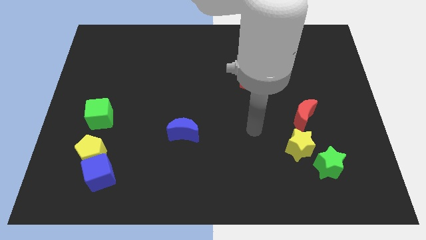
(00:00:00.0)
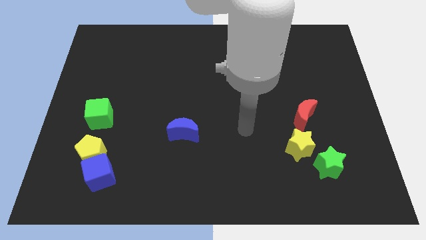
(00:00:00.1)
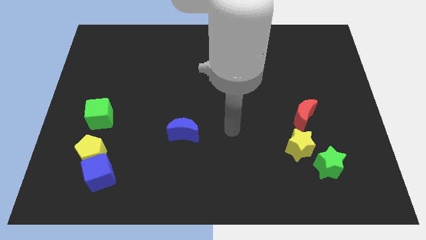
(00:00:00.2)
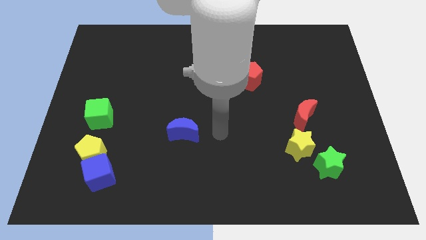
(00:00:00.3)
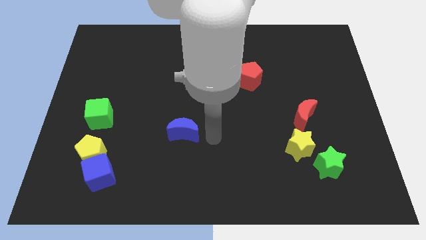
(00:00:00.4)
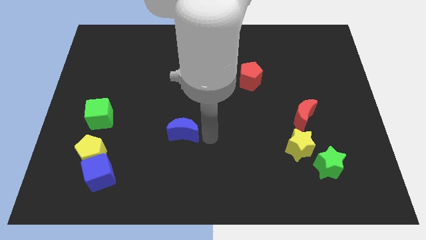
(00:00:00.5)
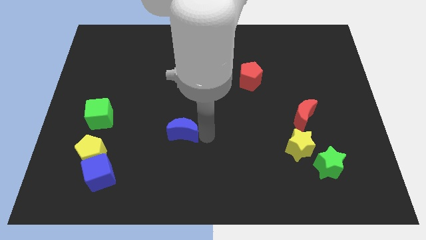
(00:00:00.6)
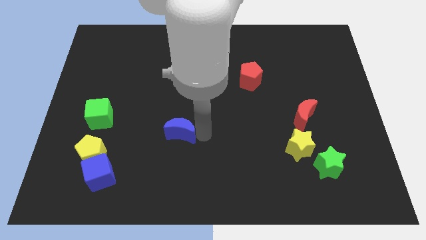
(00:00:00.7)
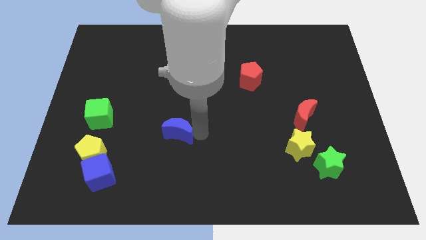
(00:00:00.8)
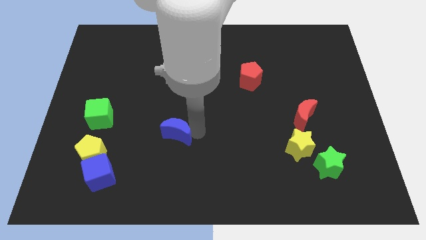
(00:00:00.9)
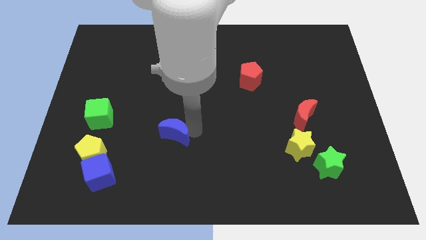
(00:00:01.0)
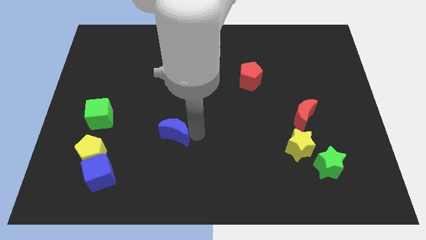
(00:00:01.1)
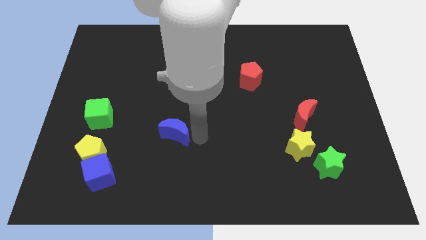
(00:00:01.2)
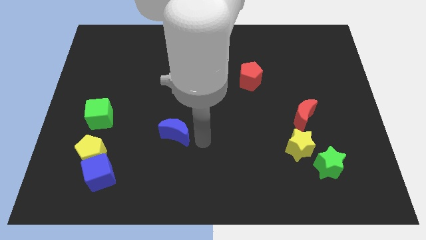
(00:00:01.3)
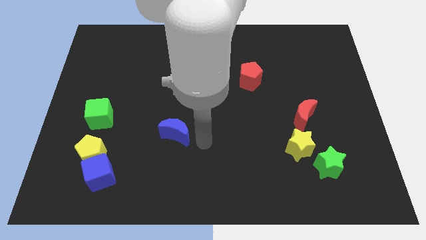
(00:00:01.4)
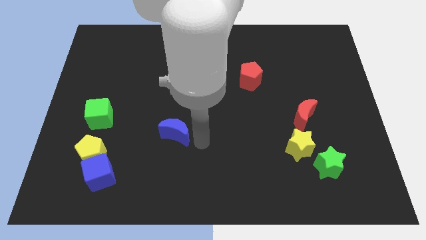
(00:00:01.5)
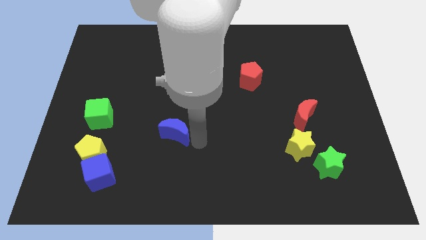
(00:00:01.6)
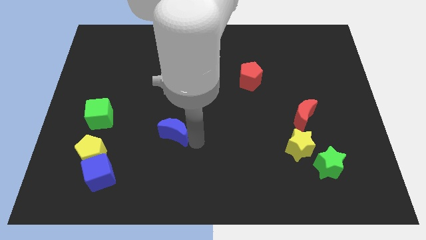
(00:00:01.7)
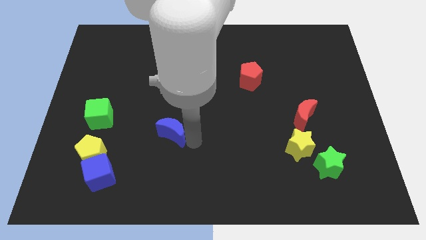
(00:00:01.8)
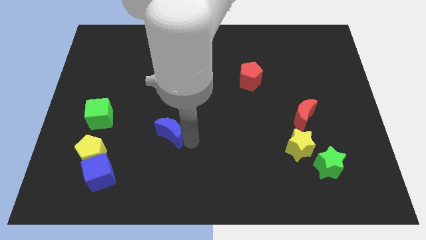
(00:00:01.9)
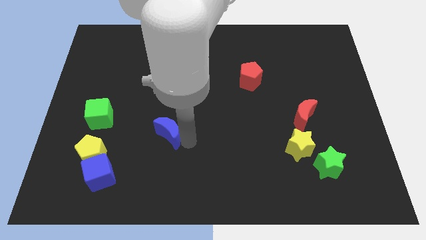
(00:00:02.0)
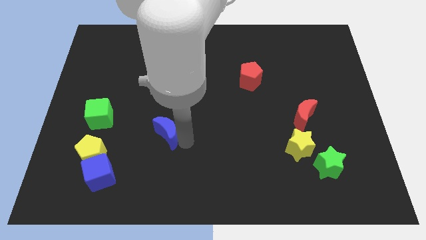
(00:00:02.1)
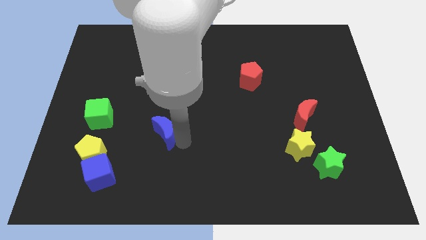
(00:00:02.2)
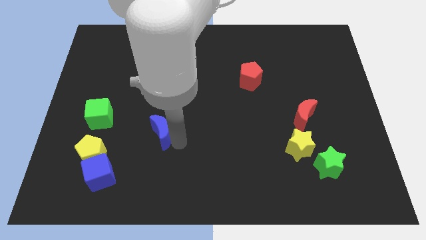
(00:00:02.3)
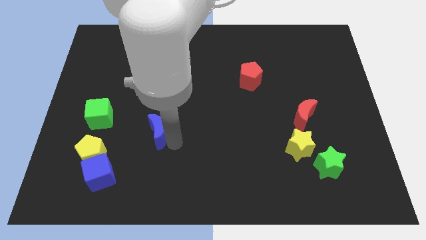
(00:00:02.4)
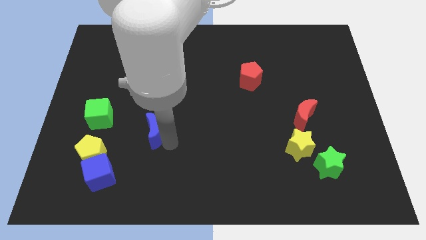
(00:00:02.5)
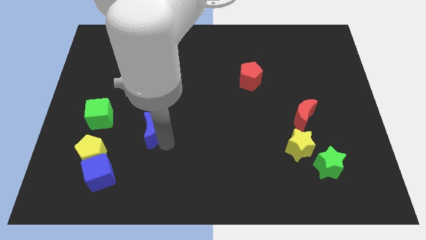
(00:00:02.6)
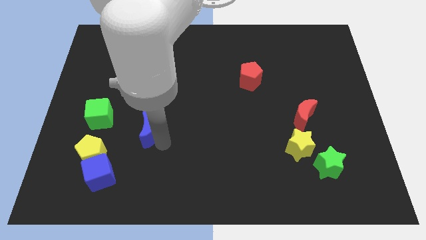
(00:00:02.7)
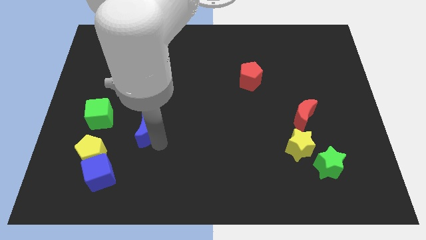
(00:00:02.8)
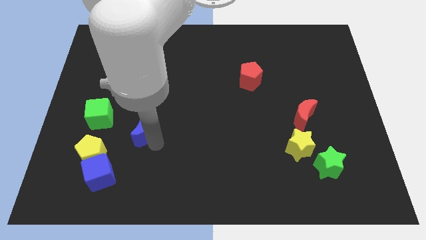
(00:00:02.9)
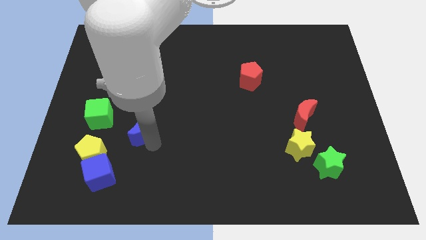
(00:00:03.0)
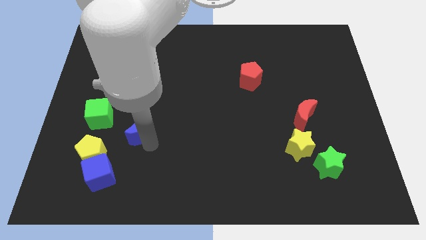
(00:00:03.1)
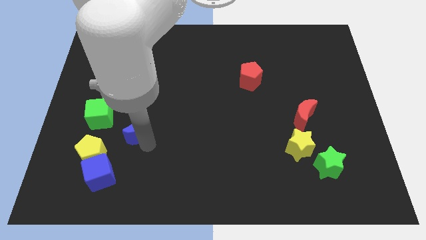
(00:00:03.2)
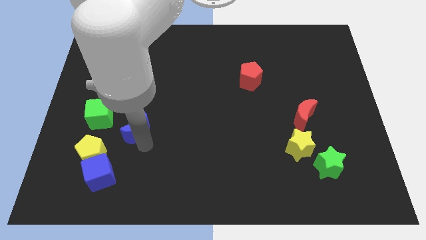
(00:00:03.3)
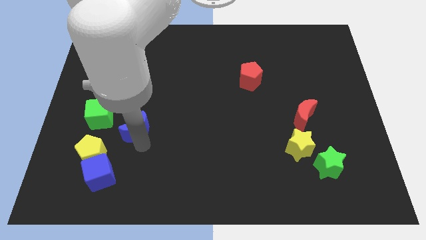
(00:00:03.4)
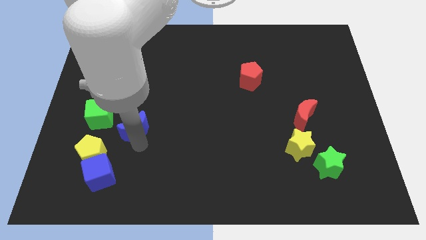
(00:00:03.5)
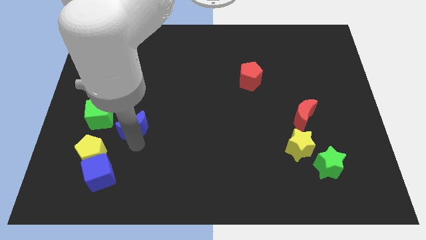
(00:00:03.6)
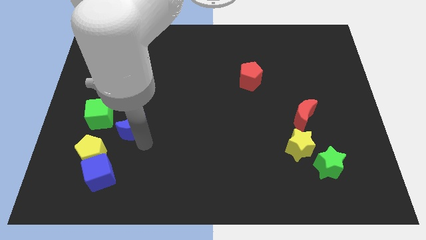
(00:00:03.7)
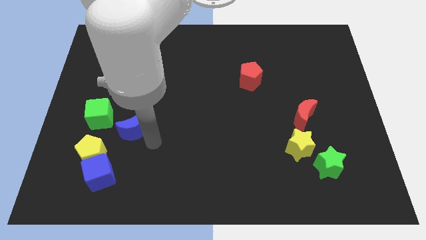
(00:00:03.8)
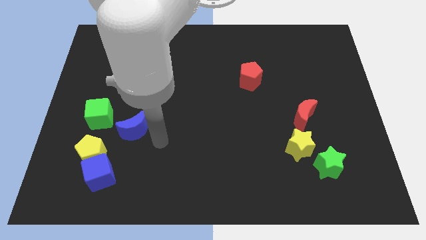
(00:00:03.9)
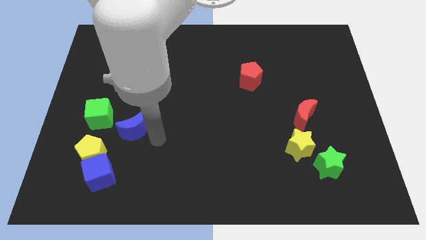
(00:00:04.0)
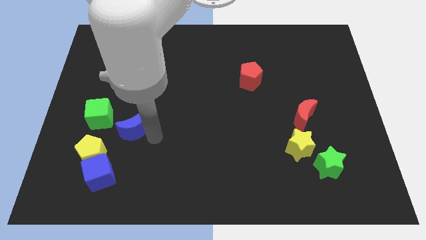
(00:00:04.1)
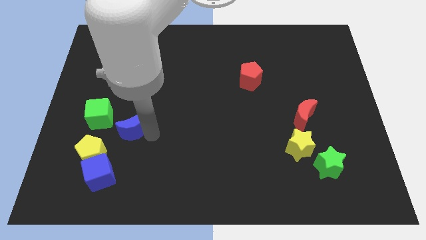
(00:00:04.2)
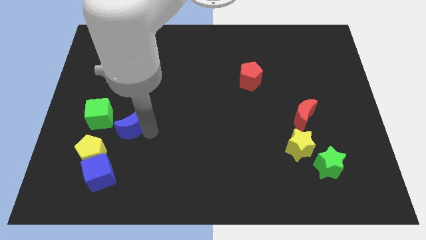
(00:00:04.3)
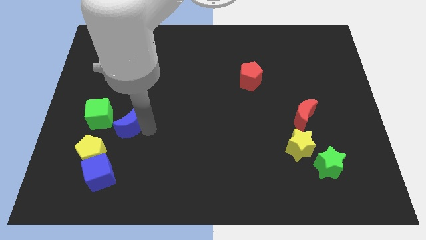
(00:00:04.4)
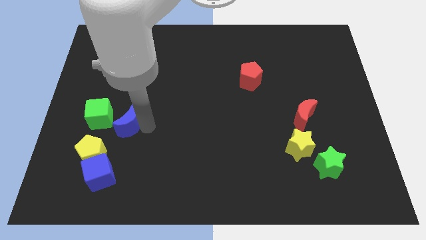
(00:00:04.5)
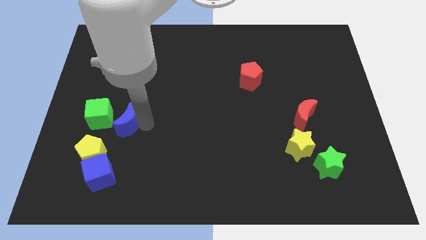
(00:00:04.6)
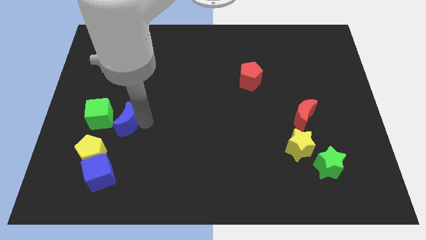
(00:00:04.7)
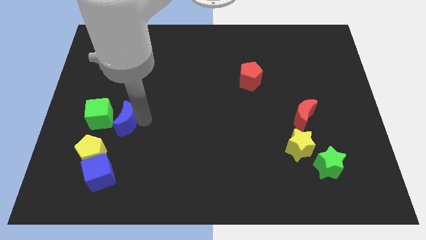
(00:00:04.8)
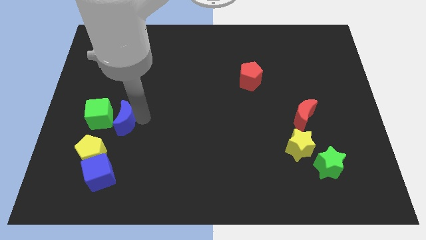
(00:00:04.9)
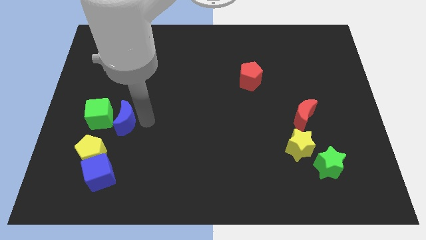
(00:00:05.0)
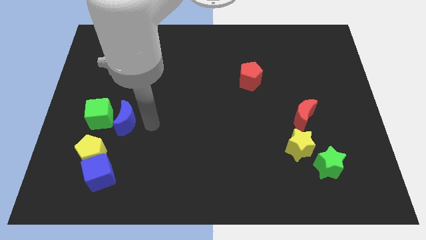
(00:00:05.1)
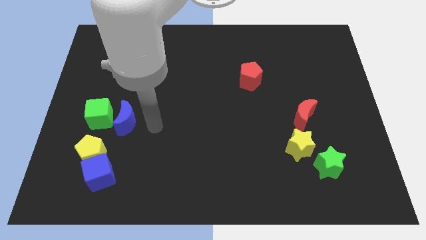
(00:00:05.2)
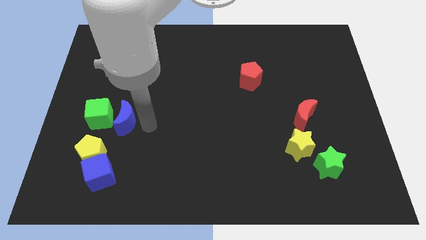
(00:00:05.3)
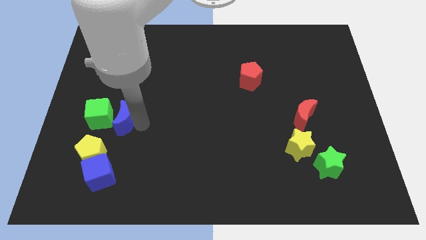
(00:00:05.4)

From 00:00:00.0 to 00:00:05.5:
push the blue moon to the green cube

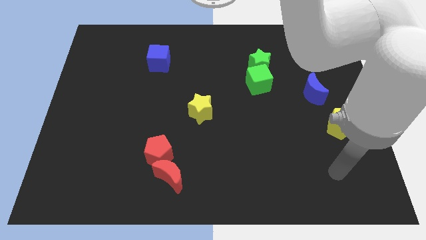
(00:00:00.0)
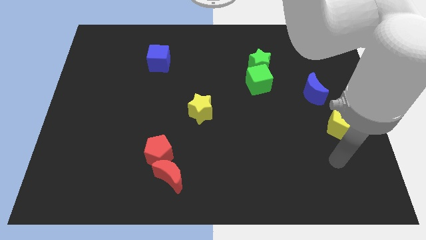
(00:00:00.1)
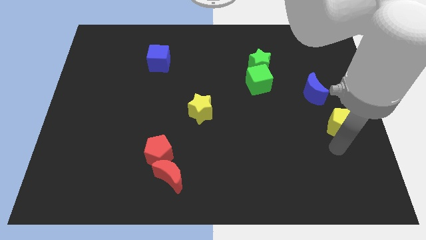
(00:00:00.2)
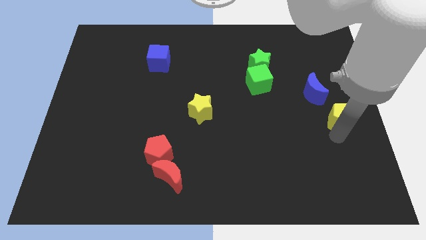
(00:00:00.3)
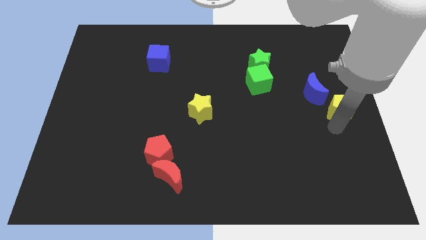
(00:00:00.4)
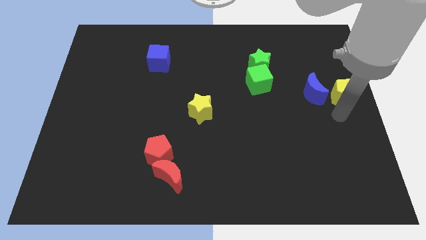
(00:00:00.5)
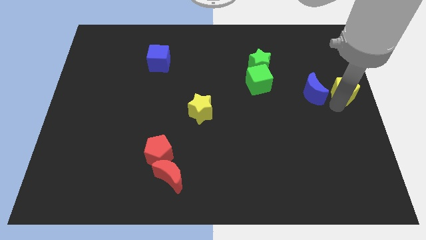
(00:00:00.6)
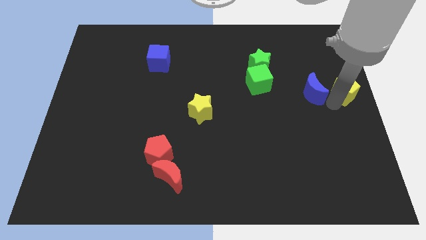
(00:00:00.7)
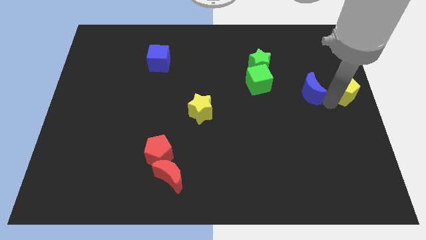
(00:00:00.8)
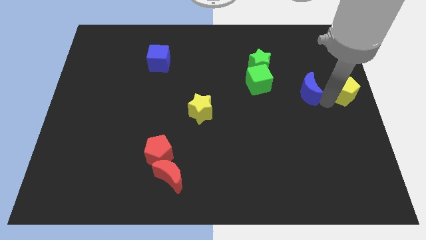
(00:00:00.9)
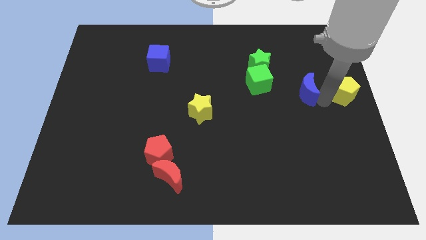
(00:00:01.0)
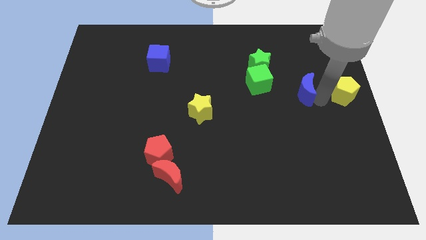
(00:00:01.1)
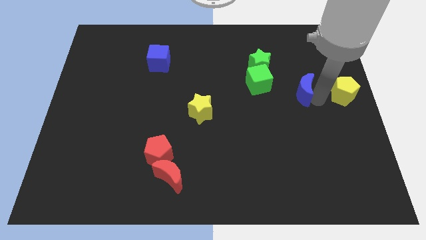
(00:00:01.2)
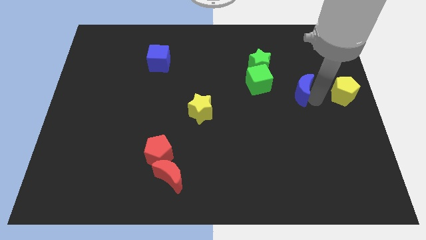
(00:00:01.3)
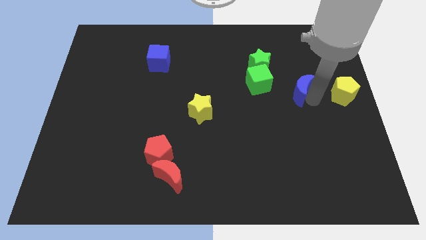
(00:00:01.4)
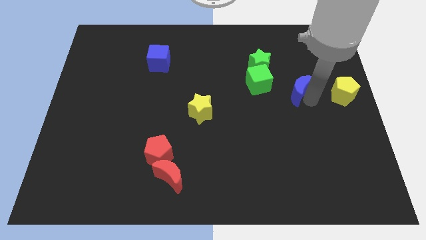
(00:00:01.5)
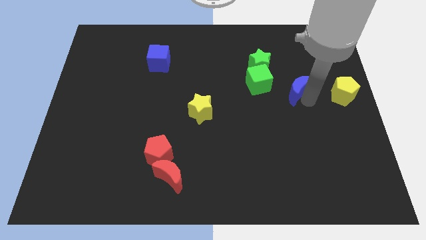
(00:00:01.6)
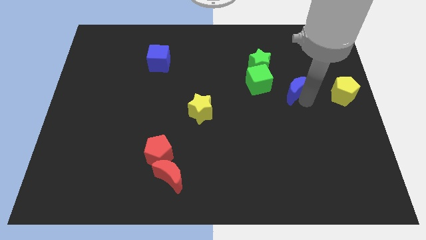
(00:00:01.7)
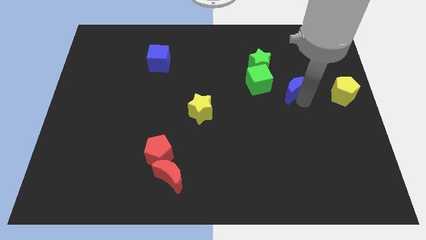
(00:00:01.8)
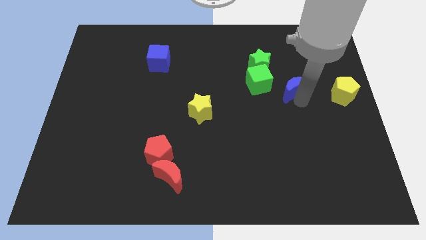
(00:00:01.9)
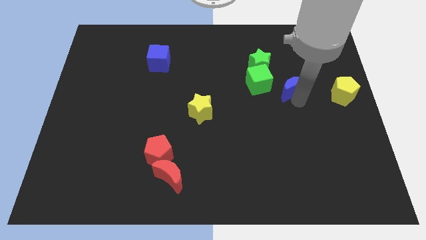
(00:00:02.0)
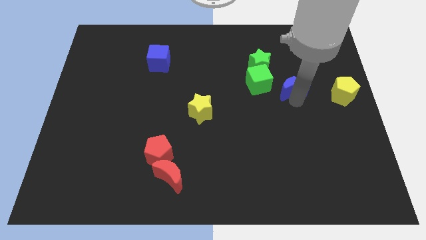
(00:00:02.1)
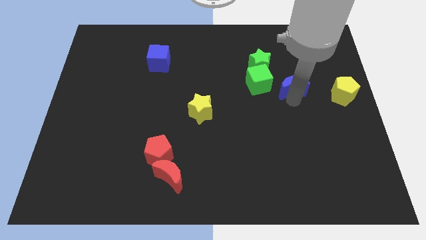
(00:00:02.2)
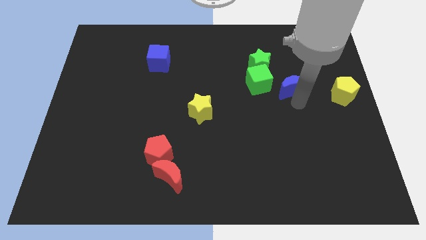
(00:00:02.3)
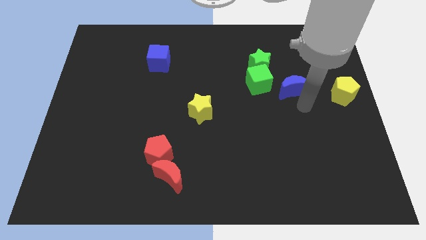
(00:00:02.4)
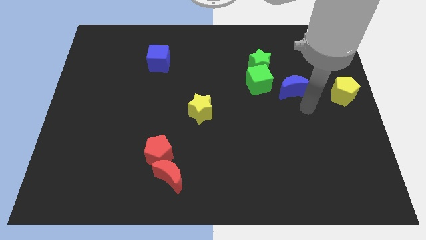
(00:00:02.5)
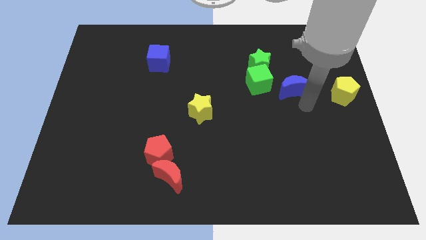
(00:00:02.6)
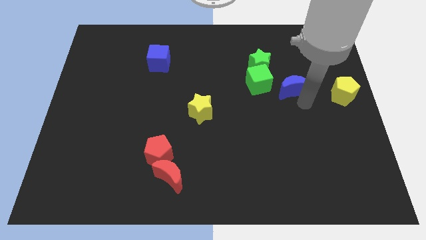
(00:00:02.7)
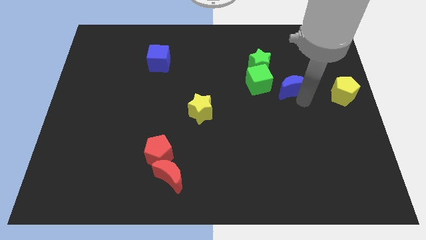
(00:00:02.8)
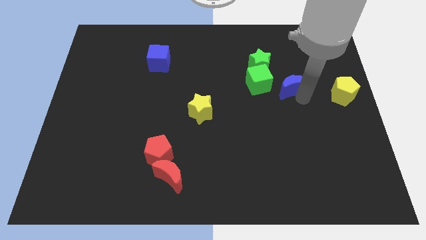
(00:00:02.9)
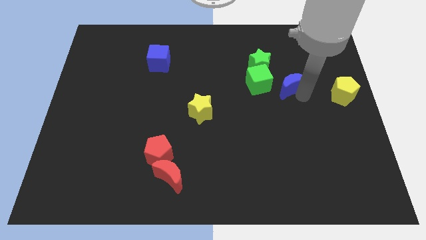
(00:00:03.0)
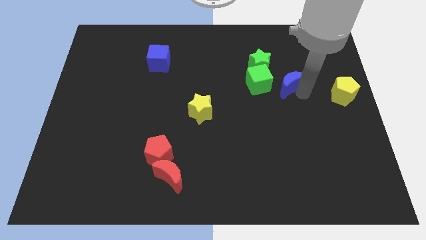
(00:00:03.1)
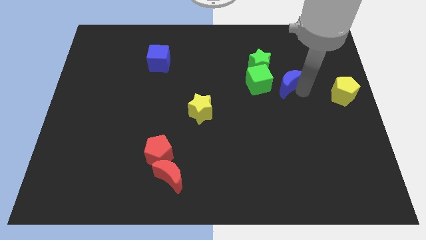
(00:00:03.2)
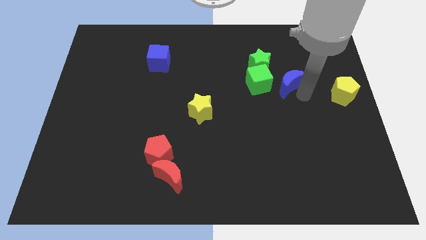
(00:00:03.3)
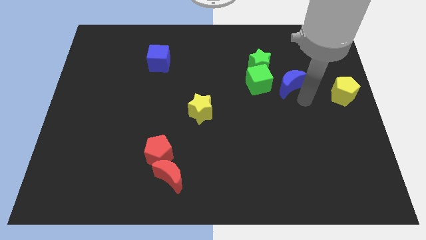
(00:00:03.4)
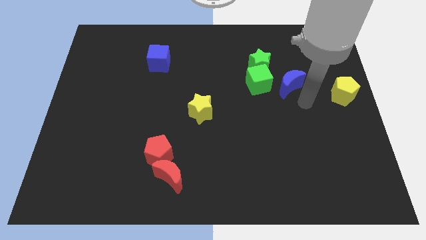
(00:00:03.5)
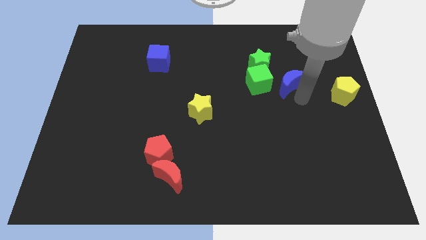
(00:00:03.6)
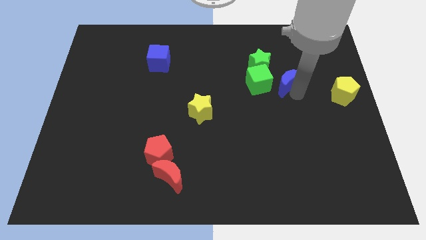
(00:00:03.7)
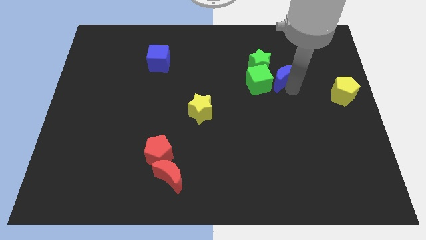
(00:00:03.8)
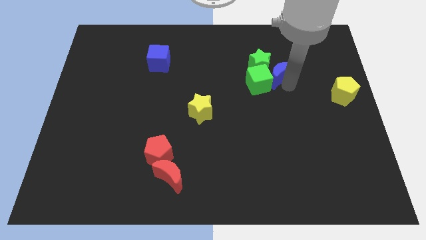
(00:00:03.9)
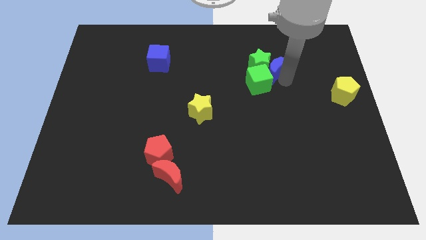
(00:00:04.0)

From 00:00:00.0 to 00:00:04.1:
slide the blue moon next to the green star
